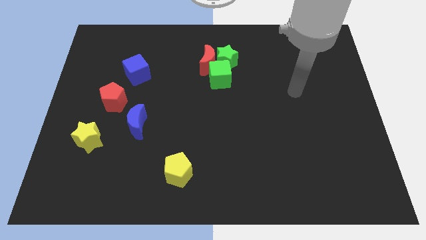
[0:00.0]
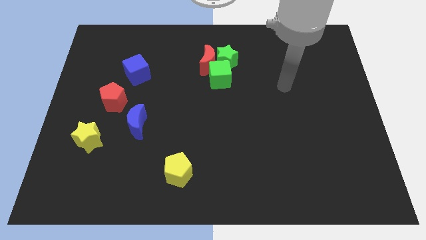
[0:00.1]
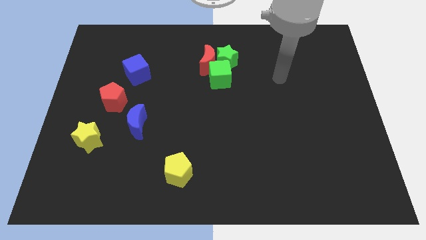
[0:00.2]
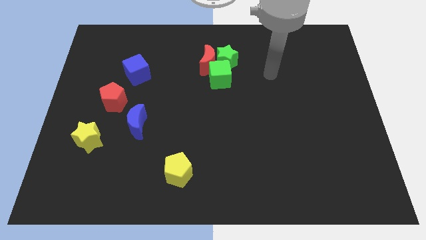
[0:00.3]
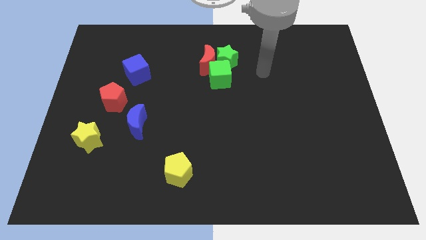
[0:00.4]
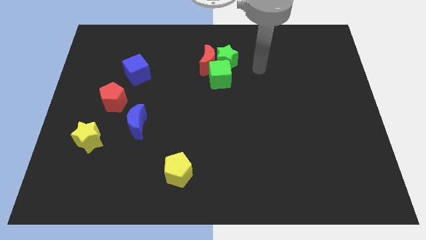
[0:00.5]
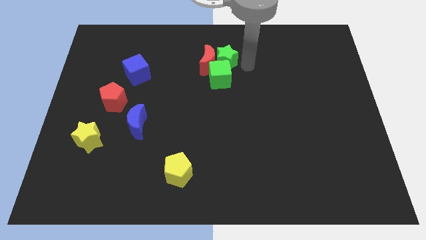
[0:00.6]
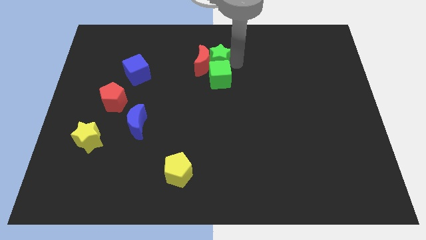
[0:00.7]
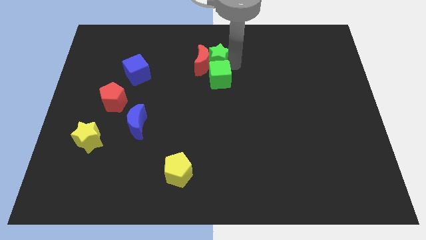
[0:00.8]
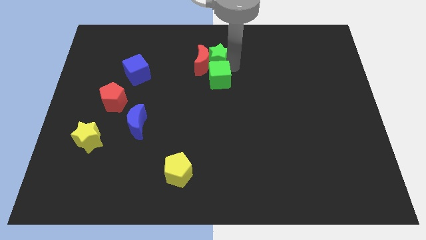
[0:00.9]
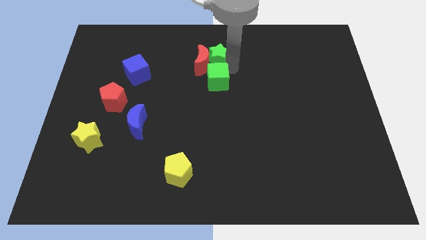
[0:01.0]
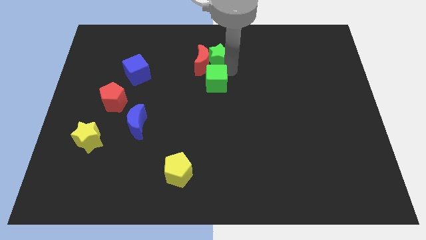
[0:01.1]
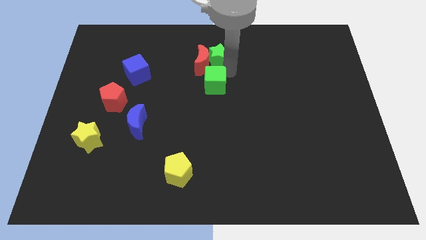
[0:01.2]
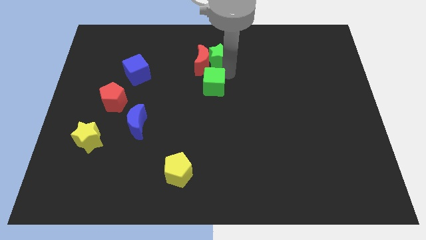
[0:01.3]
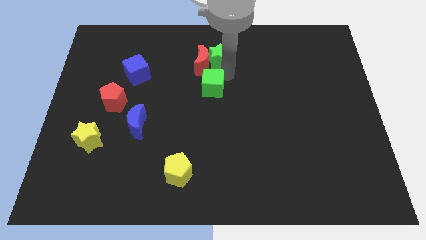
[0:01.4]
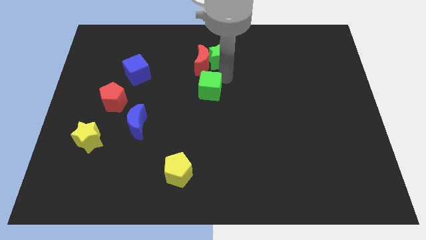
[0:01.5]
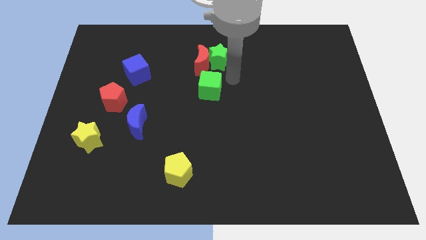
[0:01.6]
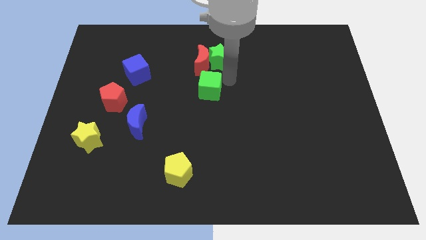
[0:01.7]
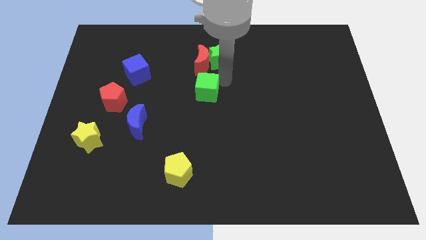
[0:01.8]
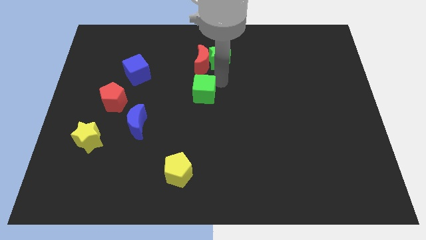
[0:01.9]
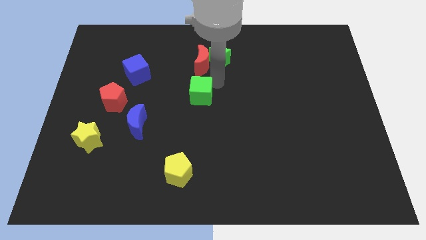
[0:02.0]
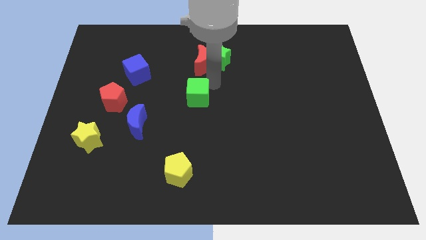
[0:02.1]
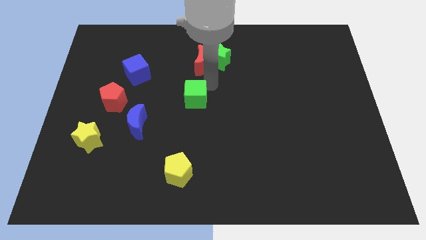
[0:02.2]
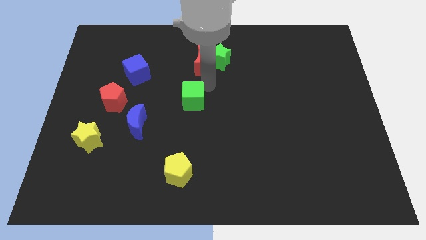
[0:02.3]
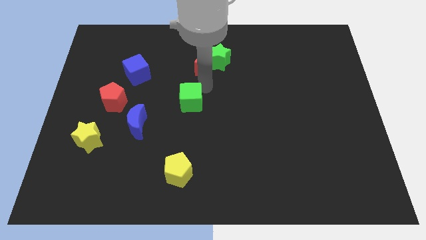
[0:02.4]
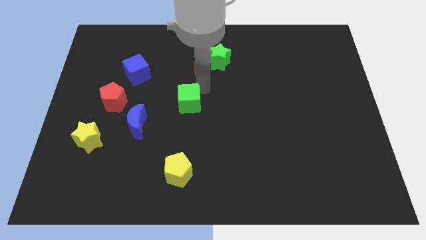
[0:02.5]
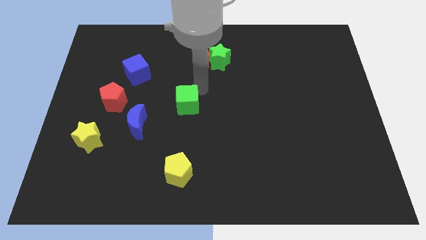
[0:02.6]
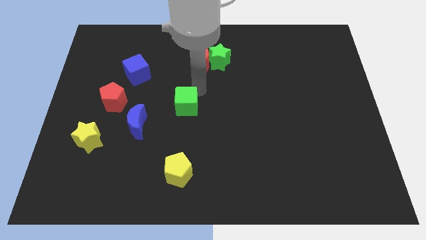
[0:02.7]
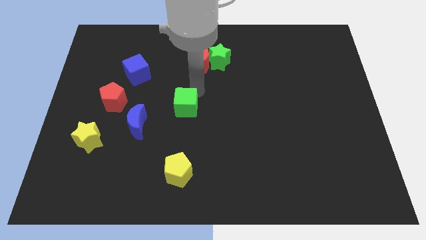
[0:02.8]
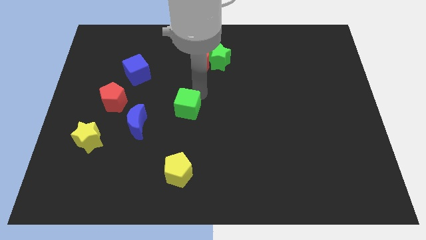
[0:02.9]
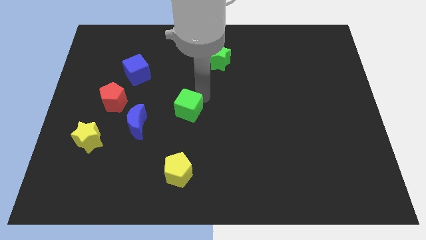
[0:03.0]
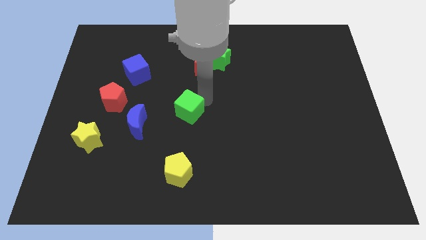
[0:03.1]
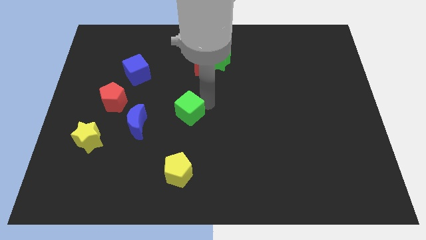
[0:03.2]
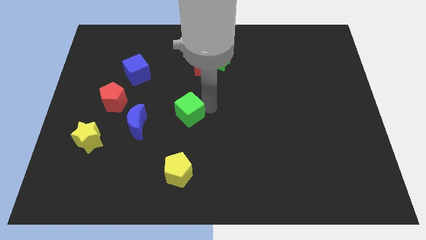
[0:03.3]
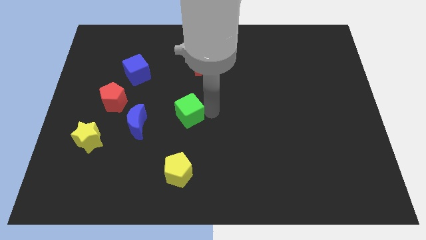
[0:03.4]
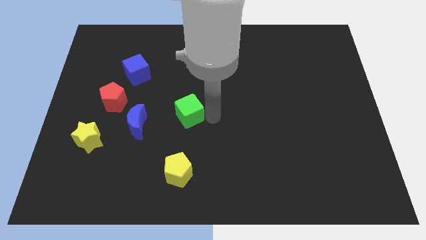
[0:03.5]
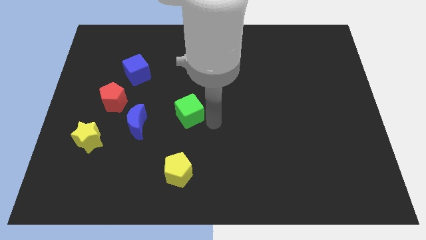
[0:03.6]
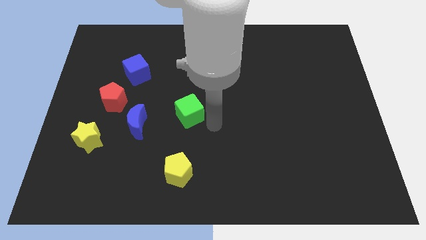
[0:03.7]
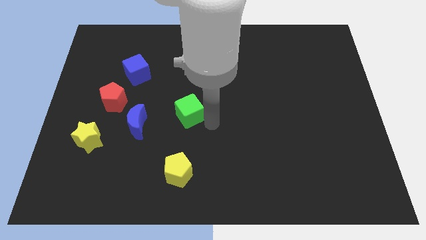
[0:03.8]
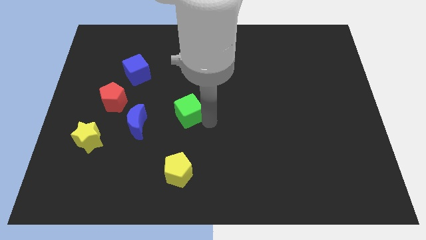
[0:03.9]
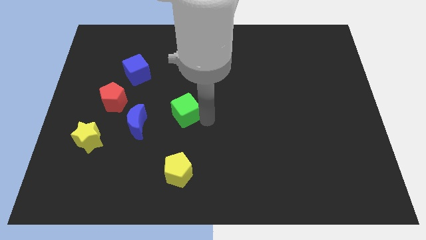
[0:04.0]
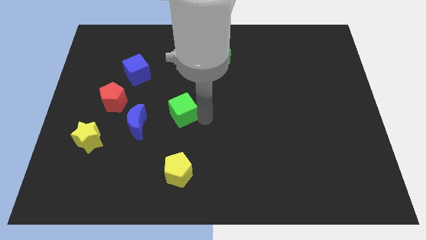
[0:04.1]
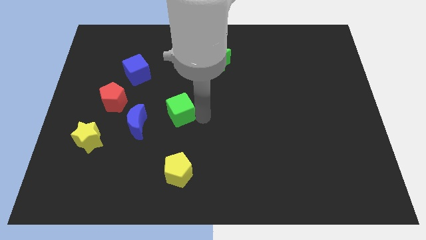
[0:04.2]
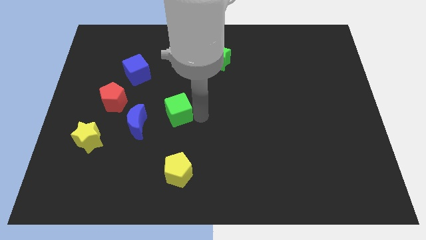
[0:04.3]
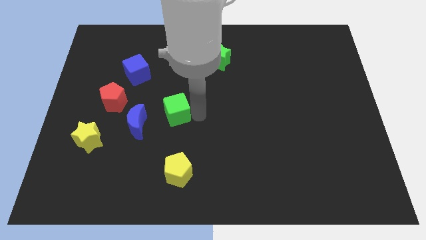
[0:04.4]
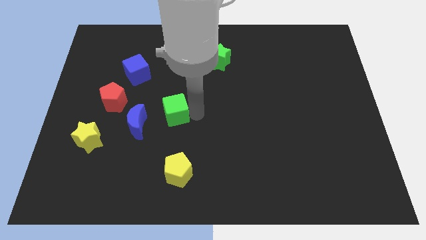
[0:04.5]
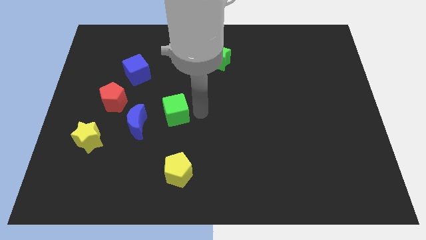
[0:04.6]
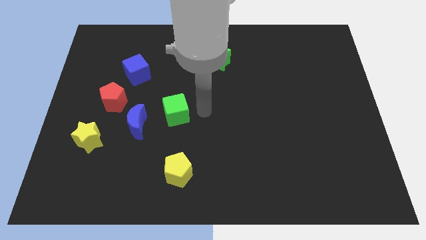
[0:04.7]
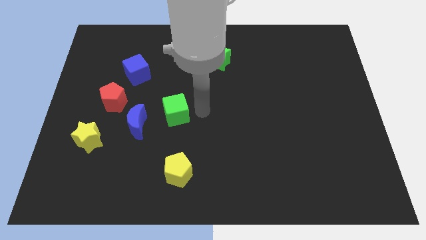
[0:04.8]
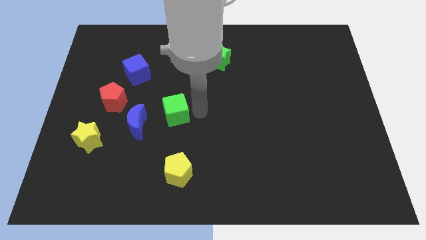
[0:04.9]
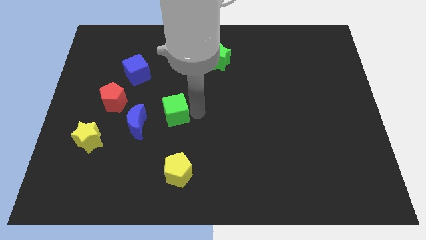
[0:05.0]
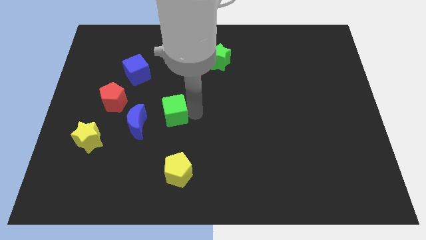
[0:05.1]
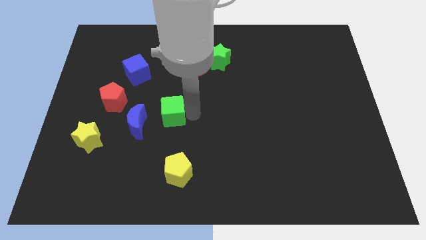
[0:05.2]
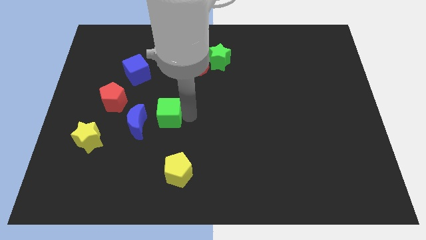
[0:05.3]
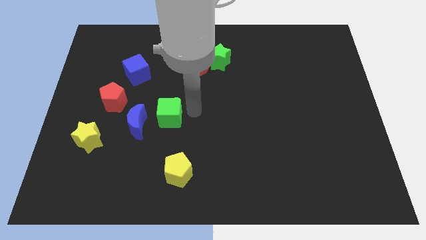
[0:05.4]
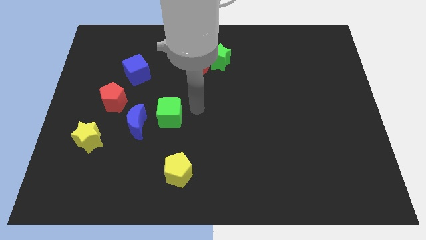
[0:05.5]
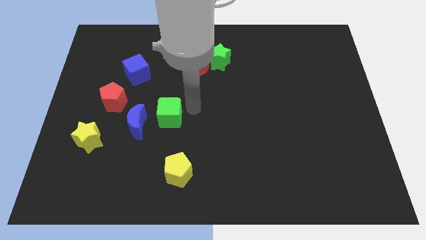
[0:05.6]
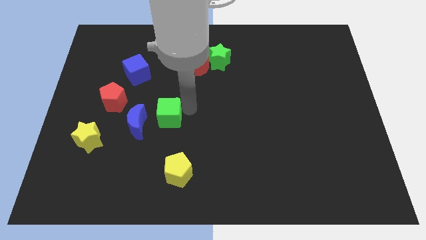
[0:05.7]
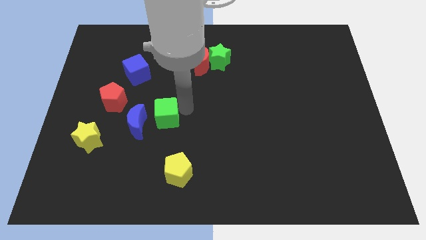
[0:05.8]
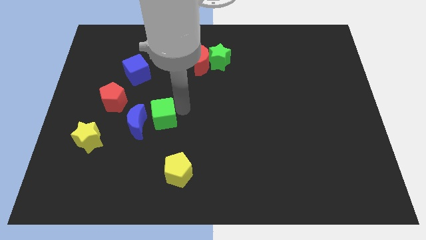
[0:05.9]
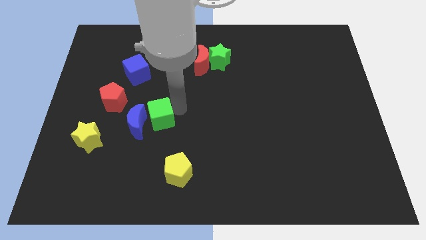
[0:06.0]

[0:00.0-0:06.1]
put the green cube towards the blue moon
